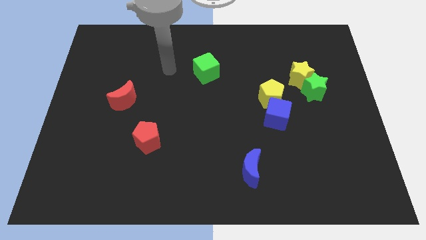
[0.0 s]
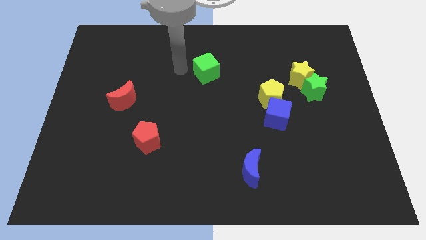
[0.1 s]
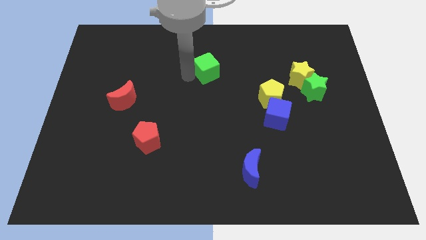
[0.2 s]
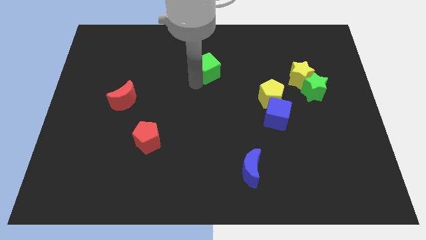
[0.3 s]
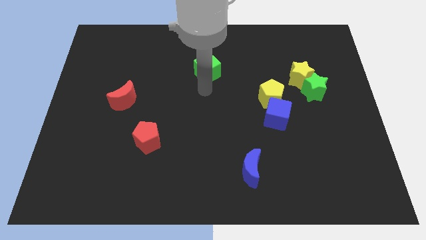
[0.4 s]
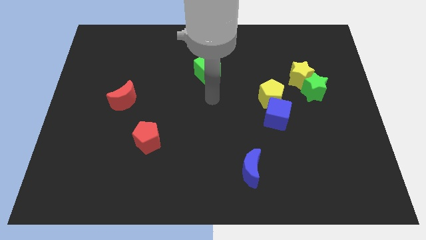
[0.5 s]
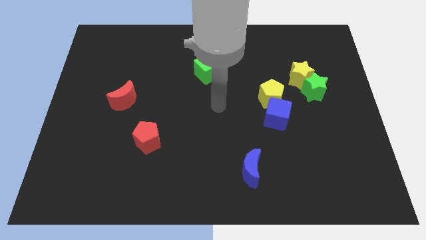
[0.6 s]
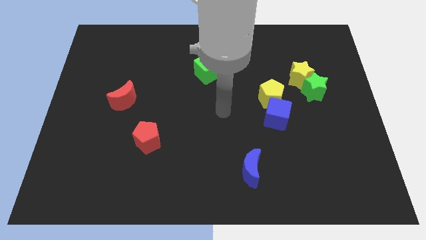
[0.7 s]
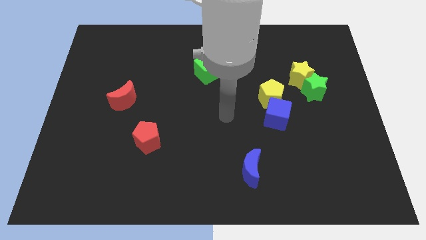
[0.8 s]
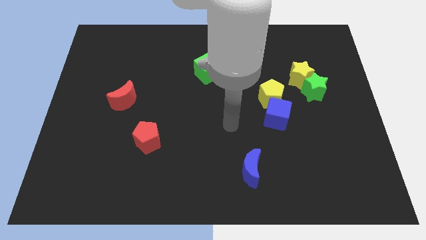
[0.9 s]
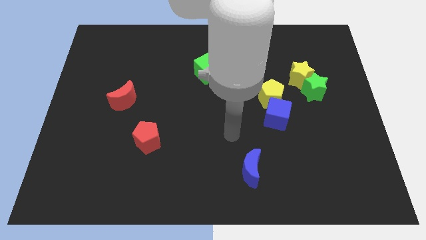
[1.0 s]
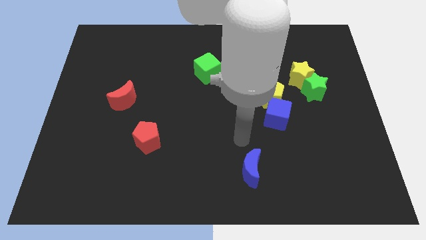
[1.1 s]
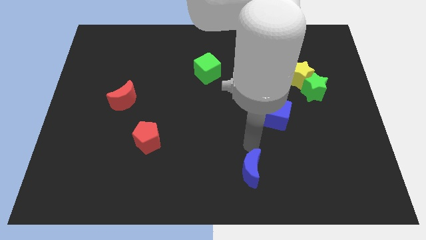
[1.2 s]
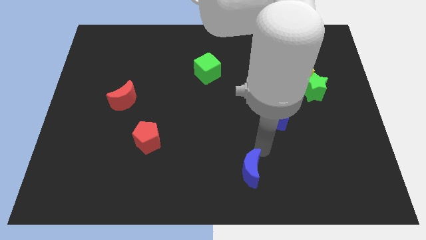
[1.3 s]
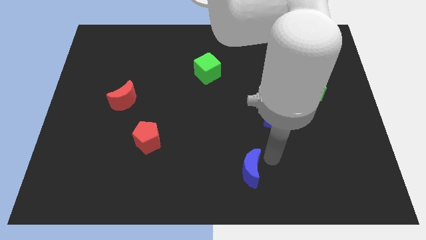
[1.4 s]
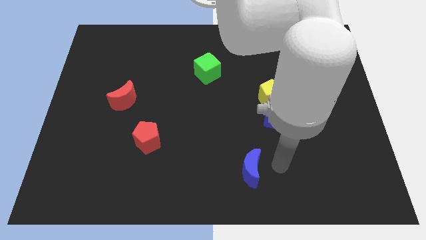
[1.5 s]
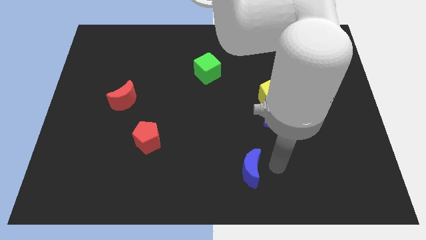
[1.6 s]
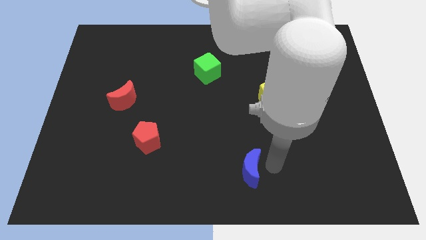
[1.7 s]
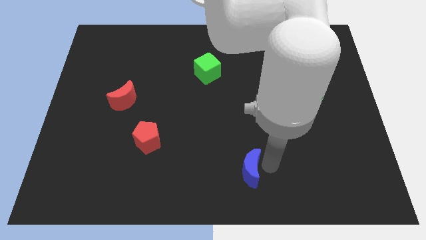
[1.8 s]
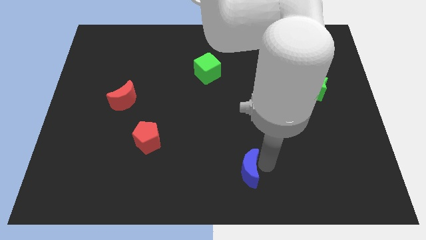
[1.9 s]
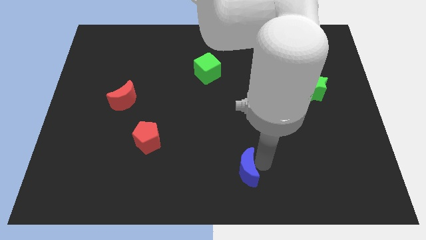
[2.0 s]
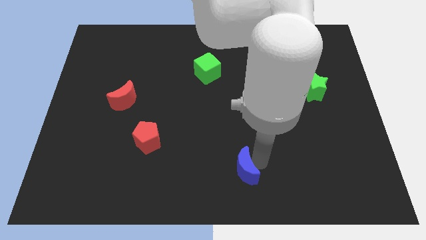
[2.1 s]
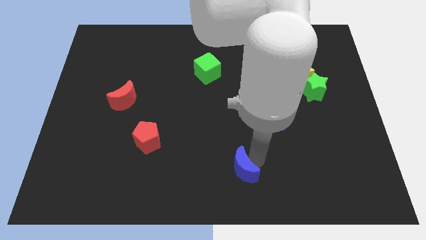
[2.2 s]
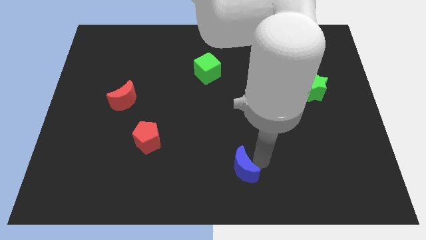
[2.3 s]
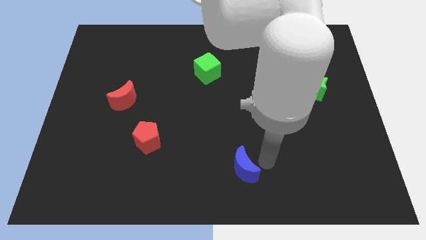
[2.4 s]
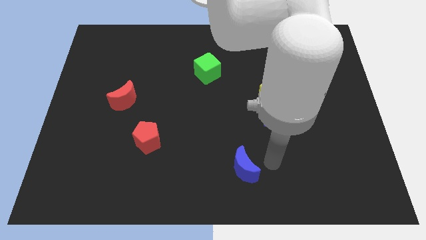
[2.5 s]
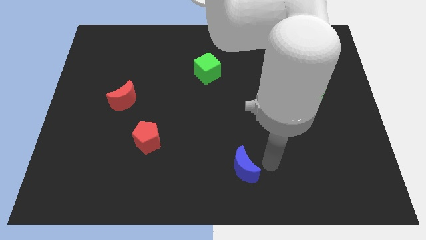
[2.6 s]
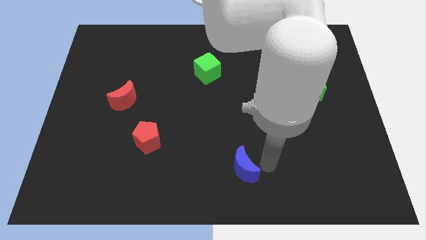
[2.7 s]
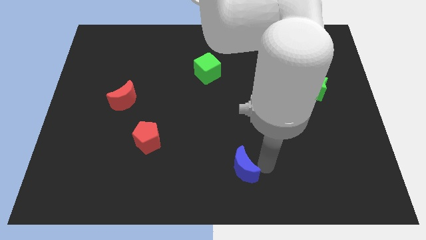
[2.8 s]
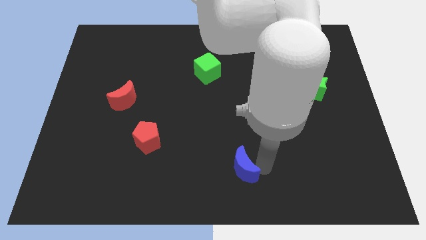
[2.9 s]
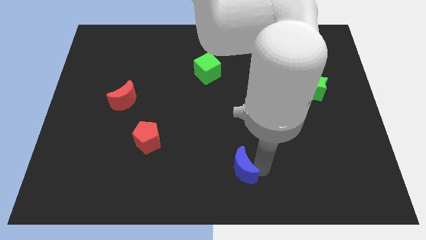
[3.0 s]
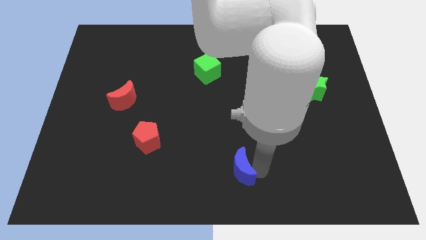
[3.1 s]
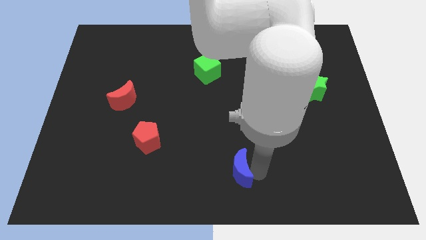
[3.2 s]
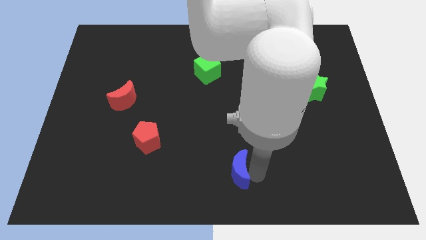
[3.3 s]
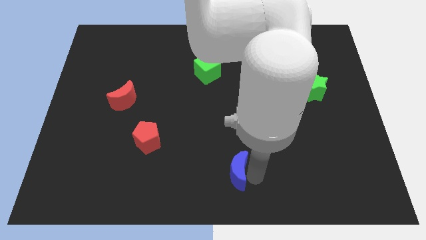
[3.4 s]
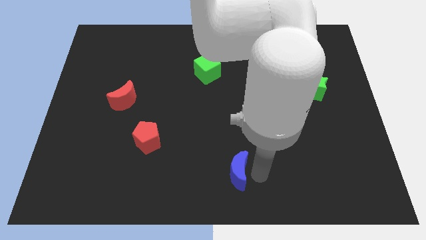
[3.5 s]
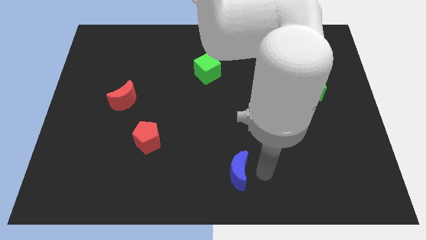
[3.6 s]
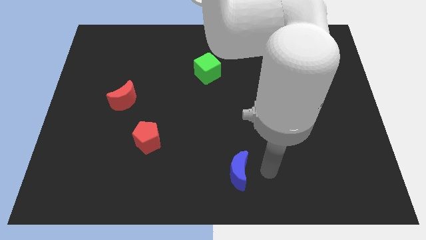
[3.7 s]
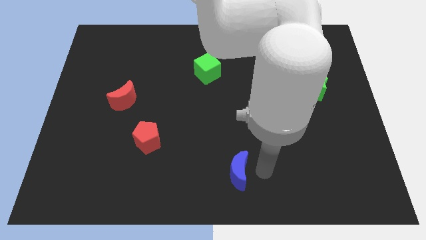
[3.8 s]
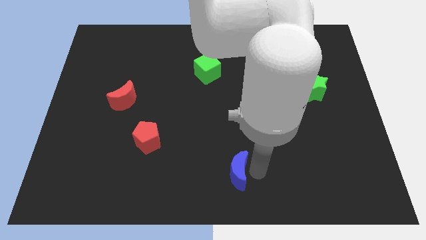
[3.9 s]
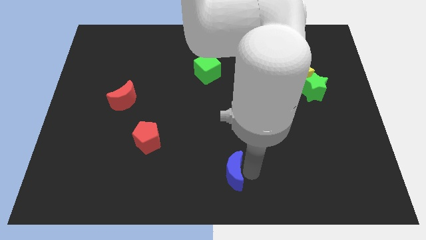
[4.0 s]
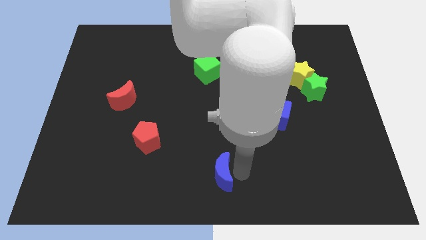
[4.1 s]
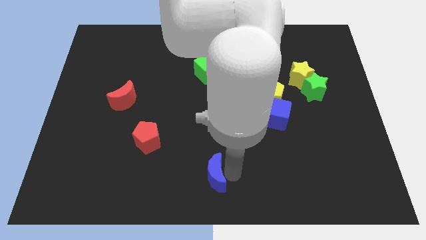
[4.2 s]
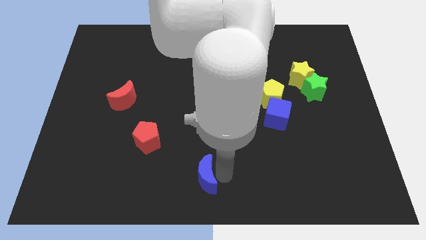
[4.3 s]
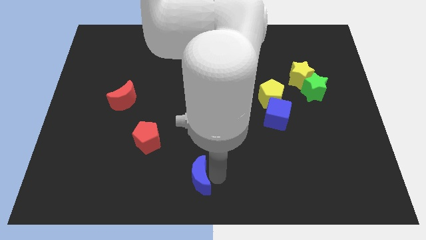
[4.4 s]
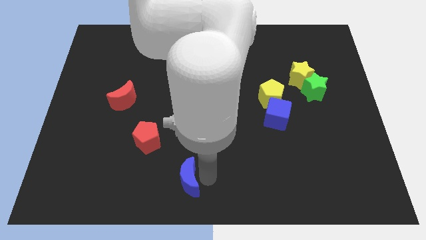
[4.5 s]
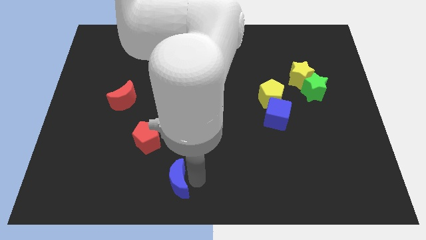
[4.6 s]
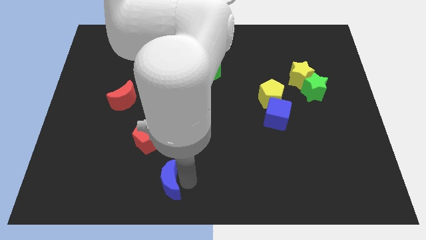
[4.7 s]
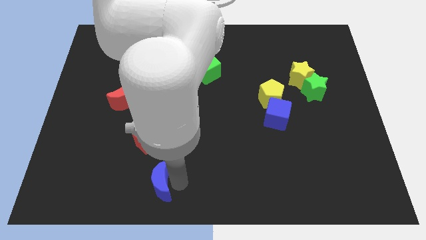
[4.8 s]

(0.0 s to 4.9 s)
put the blue moon to the bottom side of the red pentagon

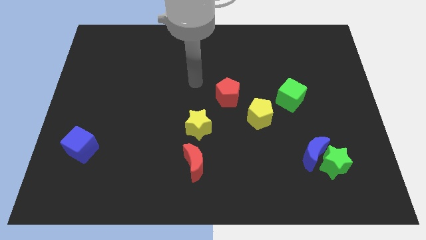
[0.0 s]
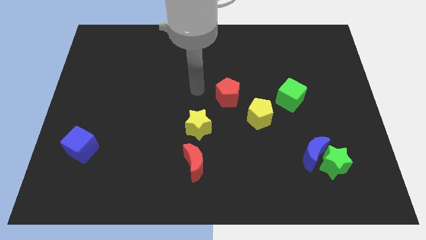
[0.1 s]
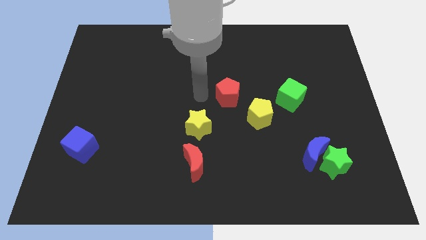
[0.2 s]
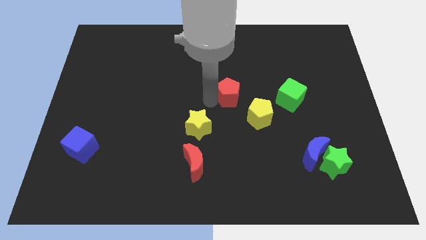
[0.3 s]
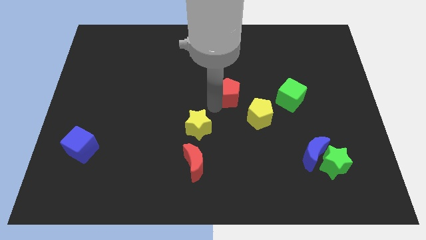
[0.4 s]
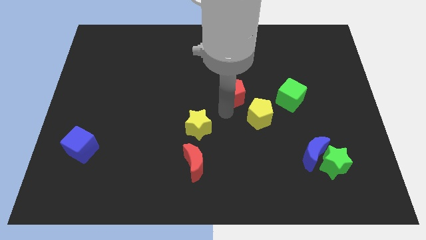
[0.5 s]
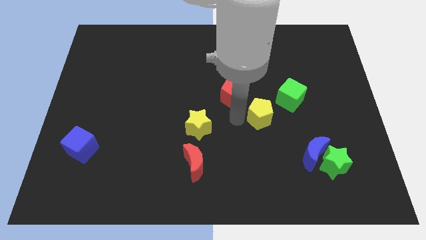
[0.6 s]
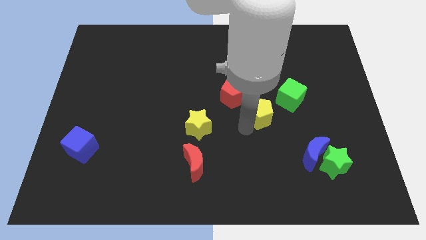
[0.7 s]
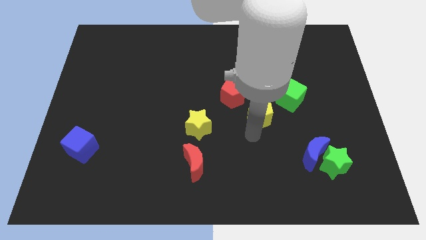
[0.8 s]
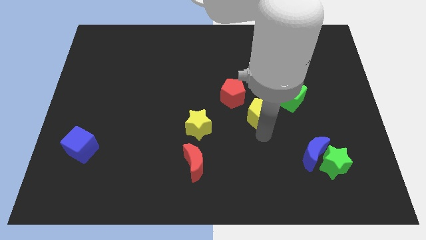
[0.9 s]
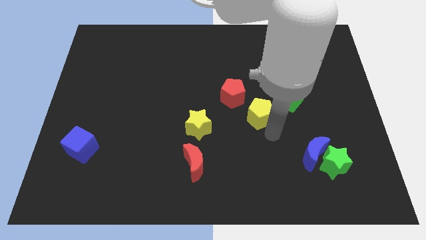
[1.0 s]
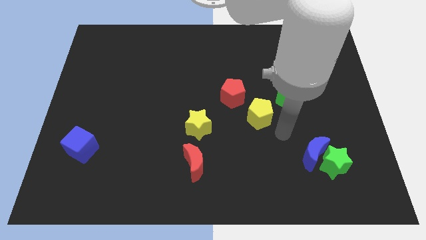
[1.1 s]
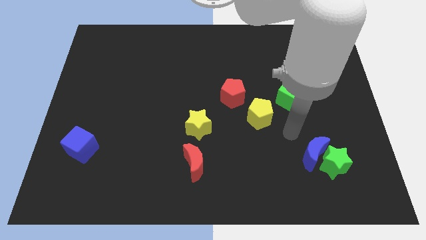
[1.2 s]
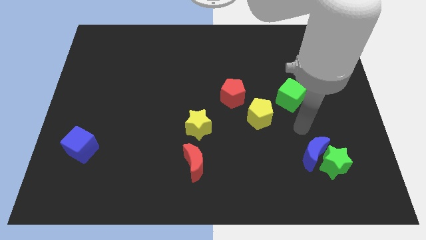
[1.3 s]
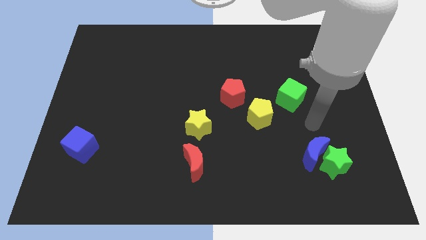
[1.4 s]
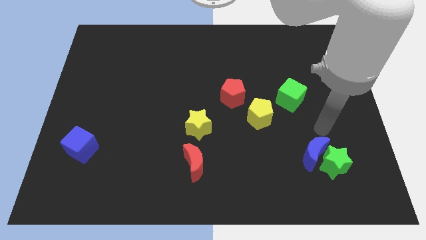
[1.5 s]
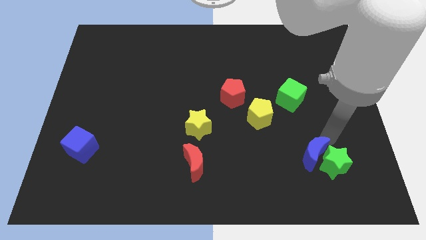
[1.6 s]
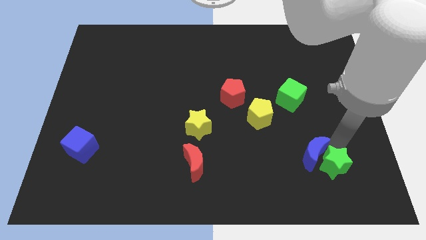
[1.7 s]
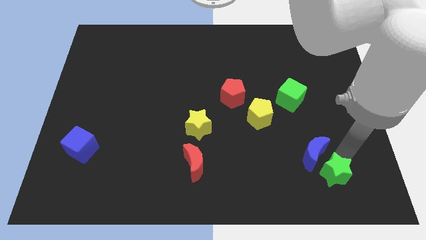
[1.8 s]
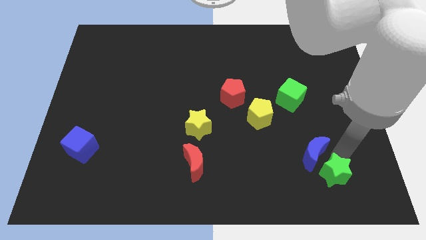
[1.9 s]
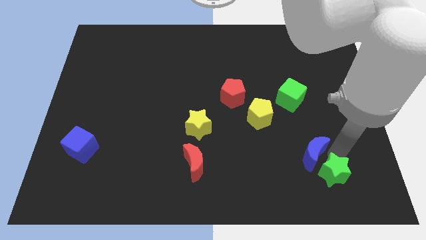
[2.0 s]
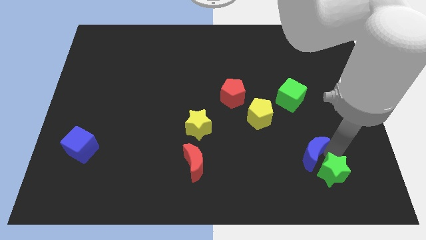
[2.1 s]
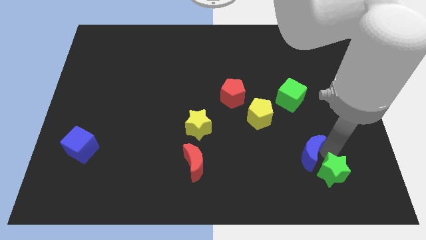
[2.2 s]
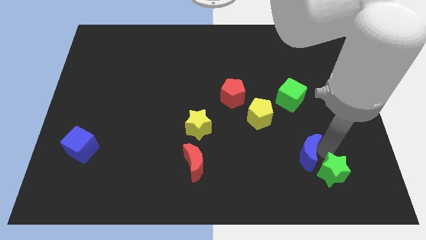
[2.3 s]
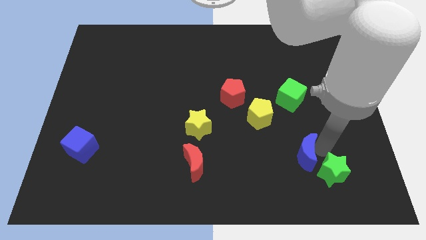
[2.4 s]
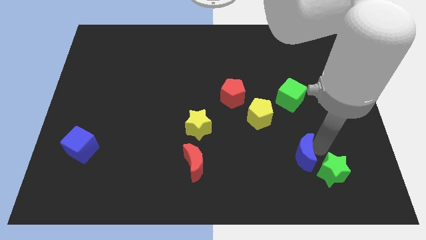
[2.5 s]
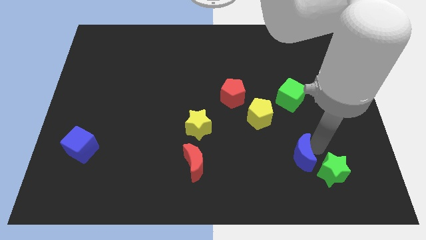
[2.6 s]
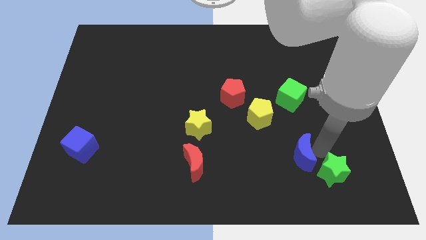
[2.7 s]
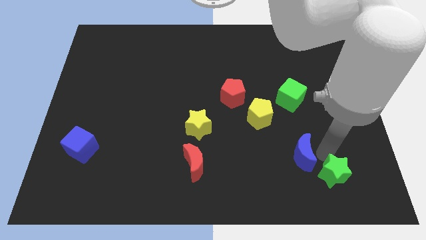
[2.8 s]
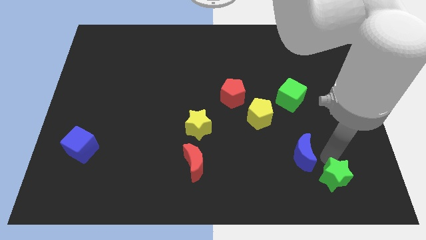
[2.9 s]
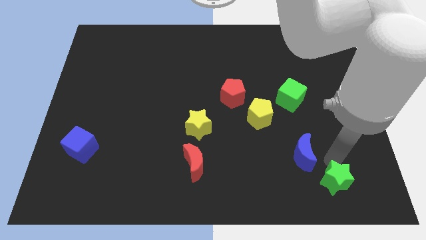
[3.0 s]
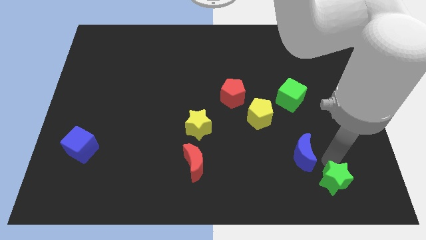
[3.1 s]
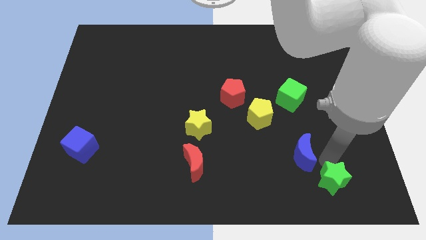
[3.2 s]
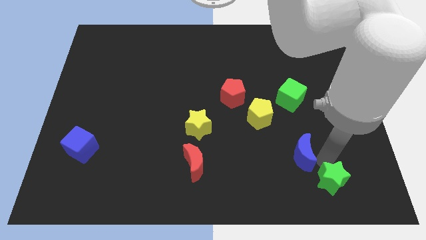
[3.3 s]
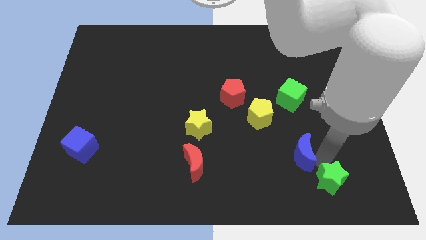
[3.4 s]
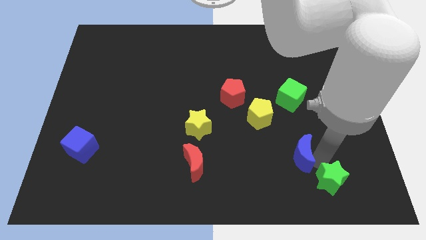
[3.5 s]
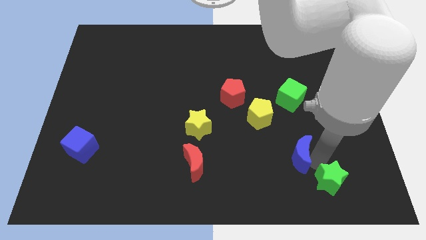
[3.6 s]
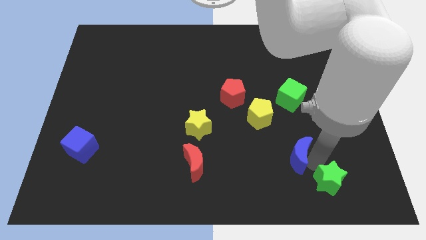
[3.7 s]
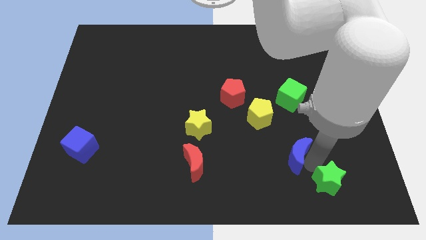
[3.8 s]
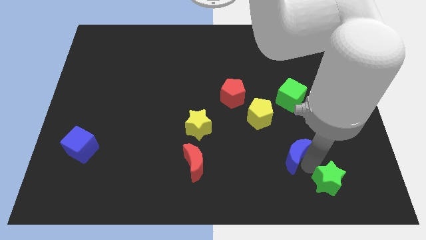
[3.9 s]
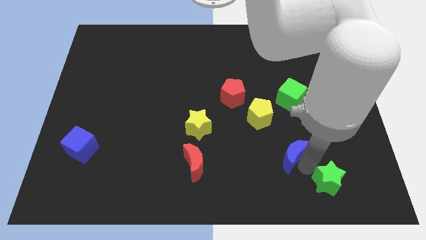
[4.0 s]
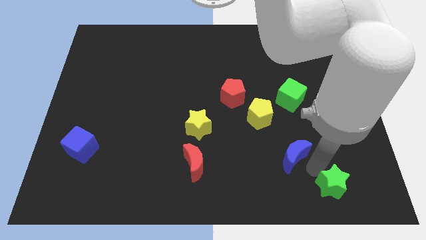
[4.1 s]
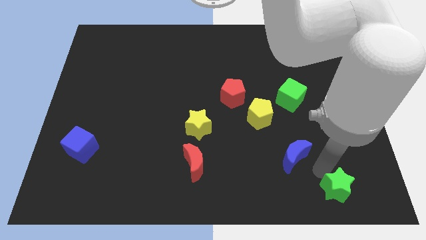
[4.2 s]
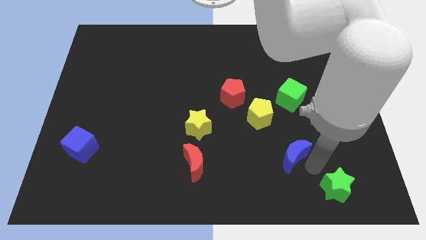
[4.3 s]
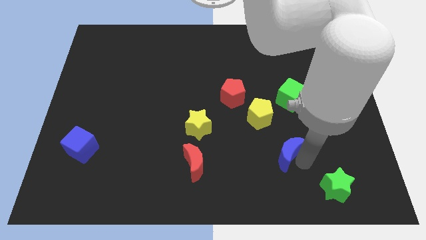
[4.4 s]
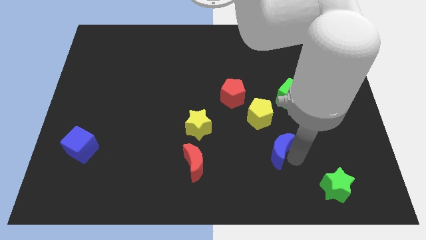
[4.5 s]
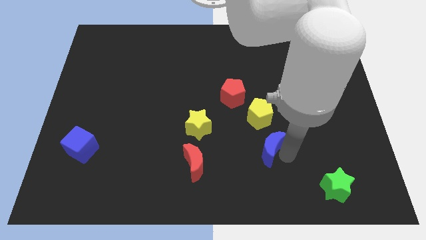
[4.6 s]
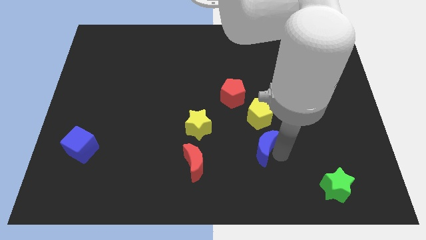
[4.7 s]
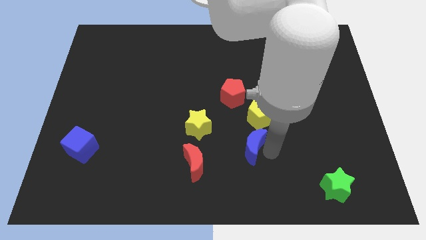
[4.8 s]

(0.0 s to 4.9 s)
push the blue moon below the red pentagon
